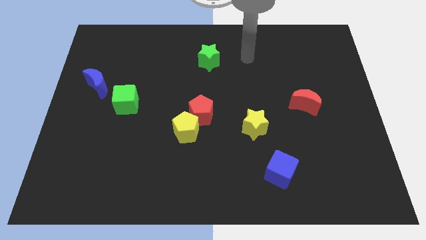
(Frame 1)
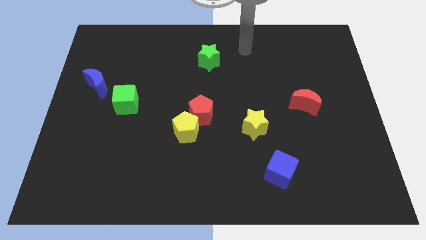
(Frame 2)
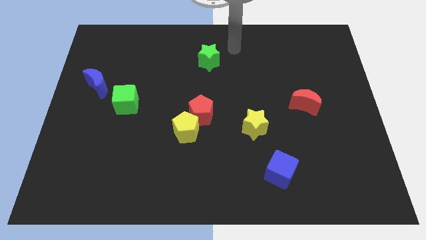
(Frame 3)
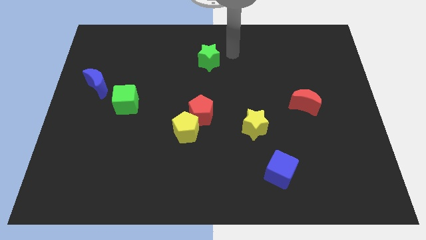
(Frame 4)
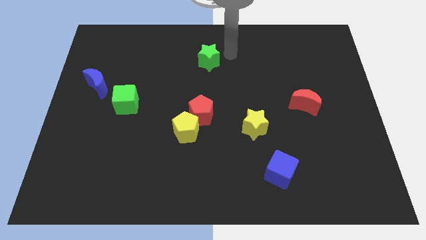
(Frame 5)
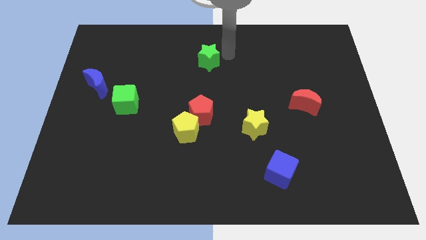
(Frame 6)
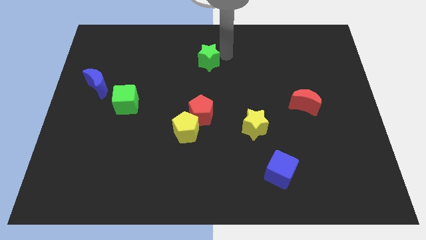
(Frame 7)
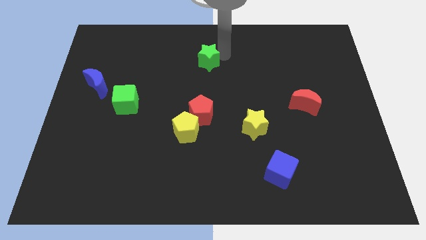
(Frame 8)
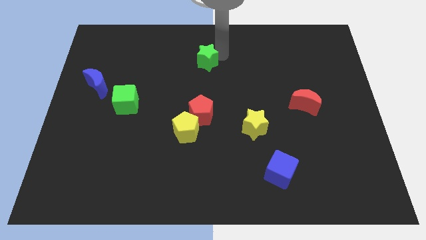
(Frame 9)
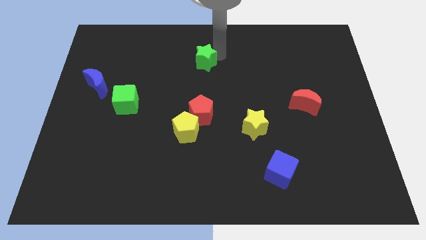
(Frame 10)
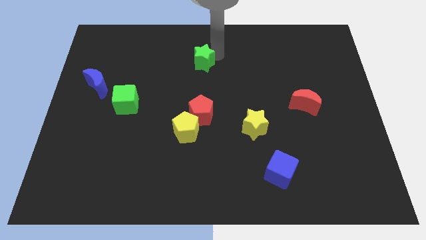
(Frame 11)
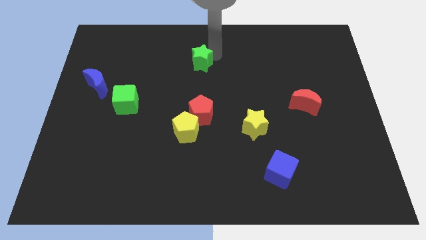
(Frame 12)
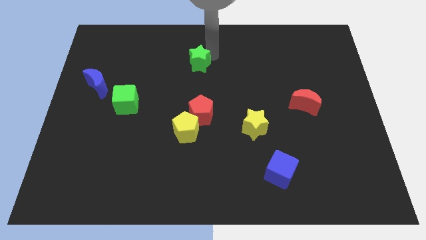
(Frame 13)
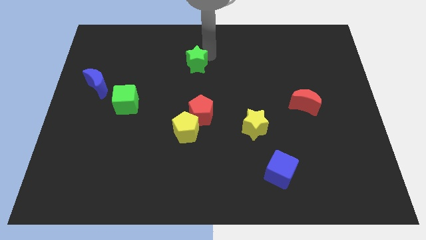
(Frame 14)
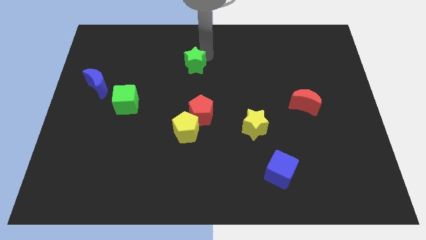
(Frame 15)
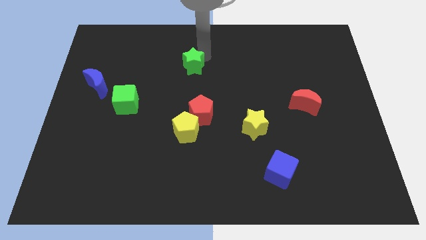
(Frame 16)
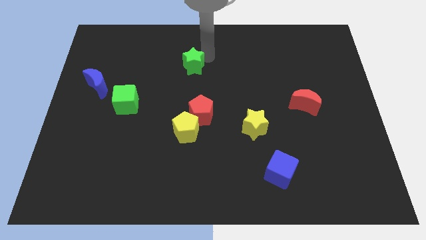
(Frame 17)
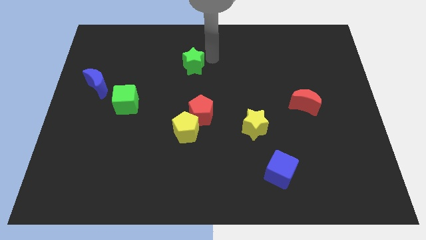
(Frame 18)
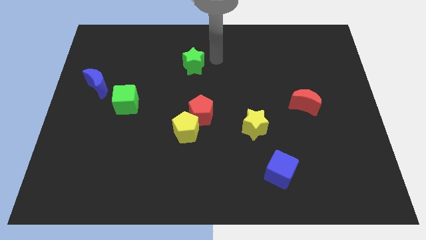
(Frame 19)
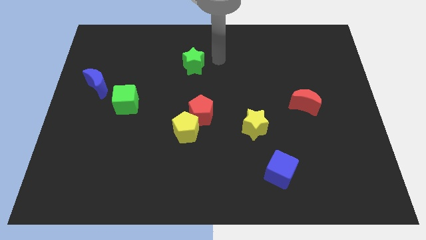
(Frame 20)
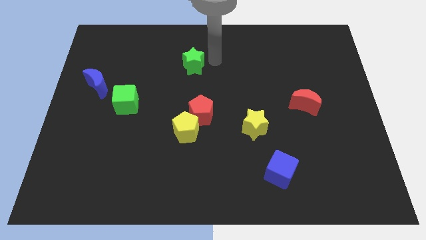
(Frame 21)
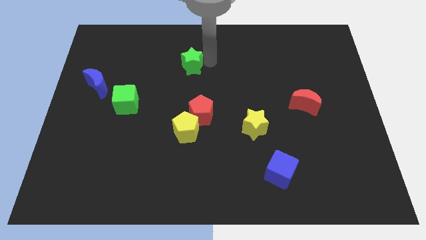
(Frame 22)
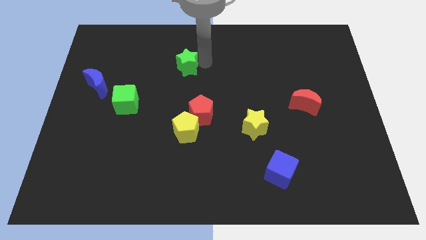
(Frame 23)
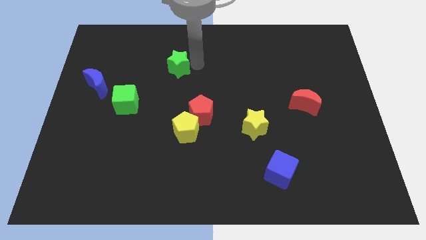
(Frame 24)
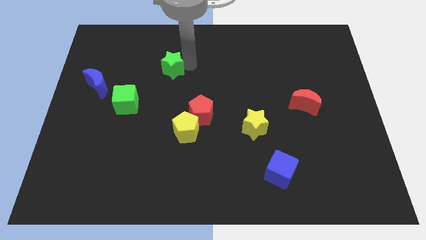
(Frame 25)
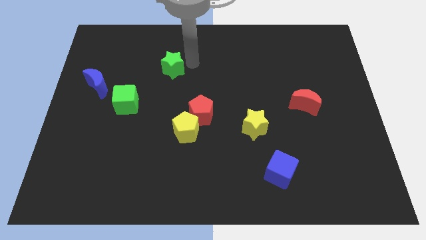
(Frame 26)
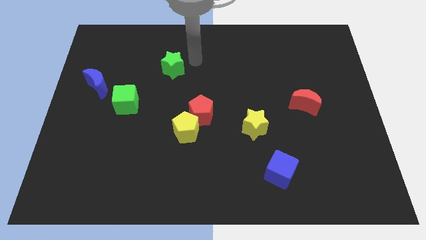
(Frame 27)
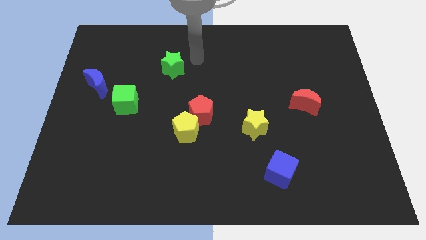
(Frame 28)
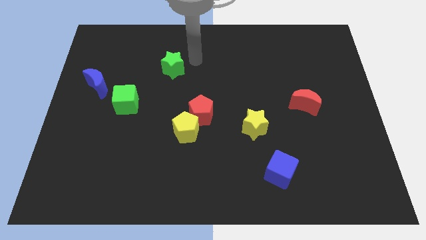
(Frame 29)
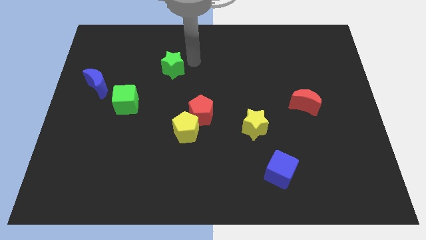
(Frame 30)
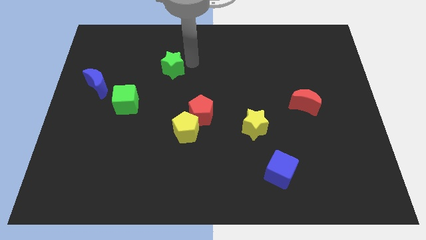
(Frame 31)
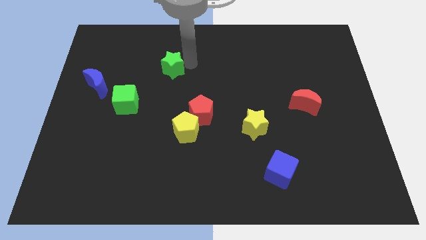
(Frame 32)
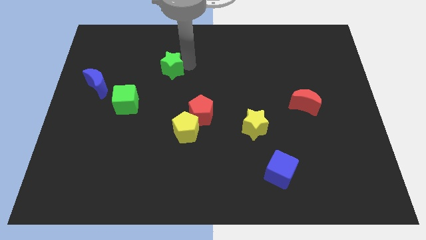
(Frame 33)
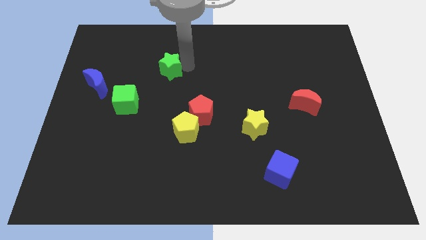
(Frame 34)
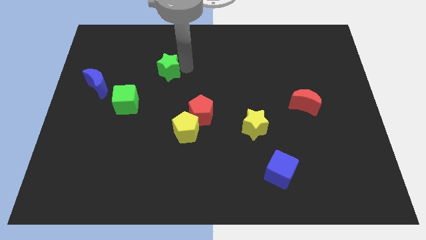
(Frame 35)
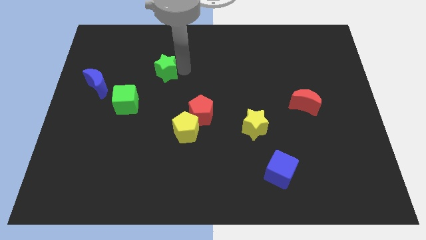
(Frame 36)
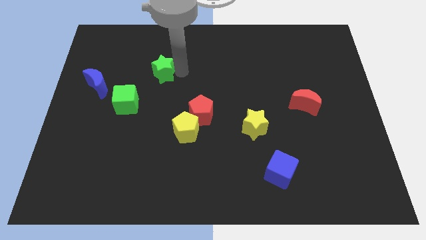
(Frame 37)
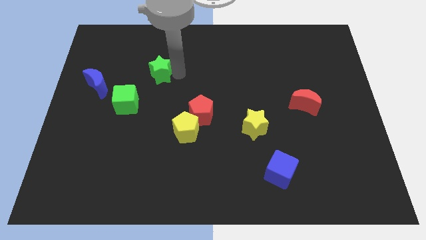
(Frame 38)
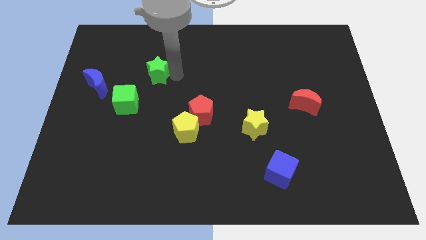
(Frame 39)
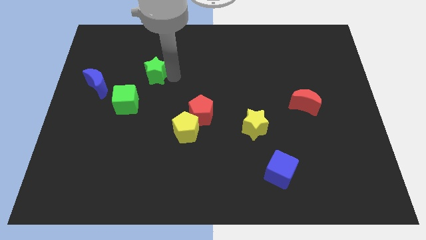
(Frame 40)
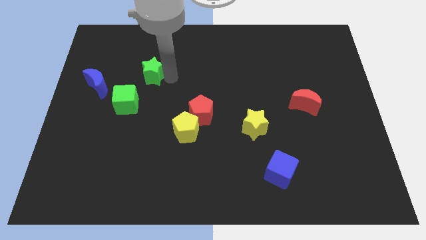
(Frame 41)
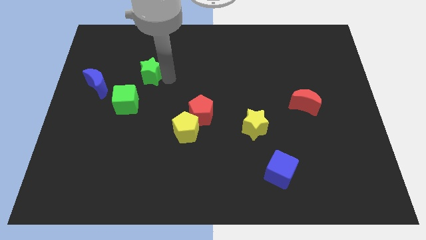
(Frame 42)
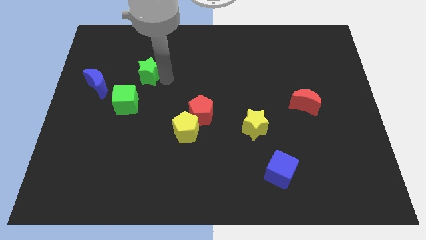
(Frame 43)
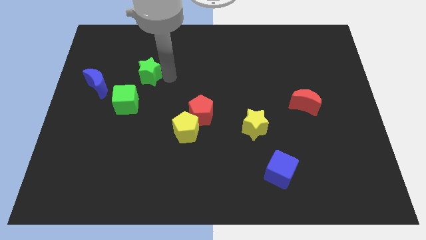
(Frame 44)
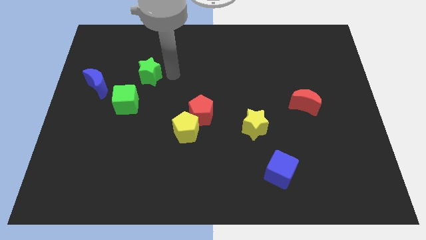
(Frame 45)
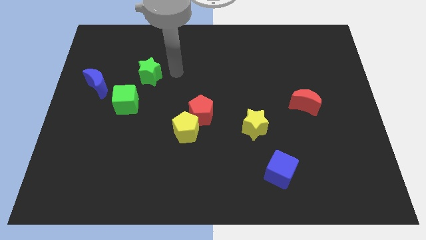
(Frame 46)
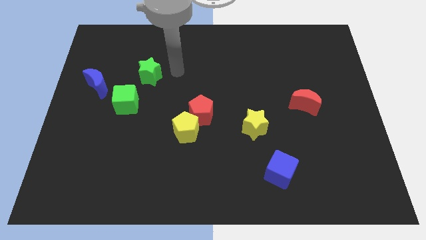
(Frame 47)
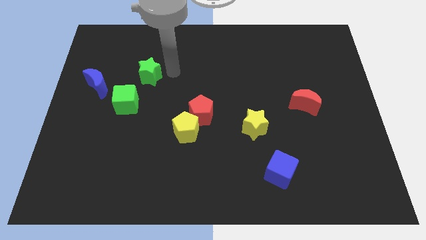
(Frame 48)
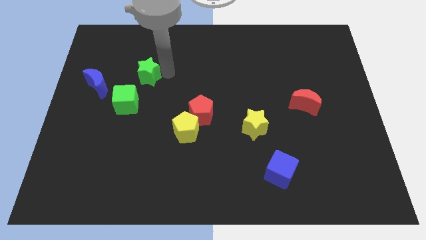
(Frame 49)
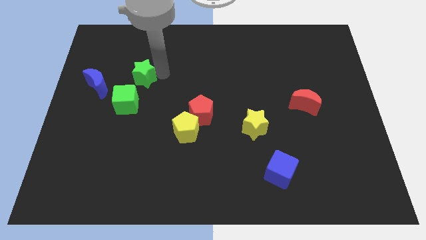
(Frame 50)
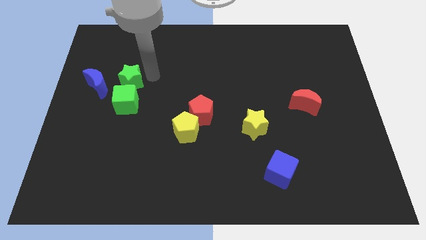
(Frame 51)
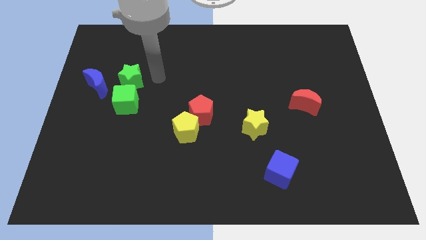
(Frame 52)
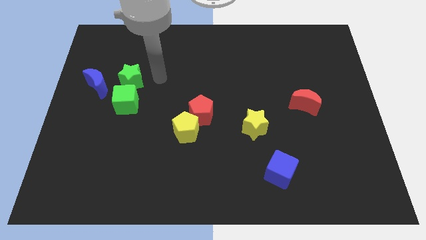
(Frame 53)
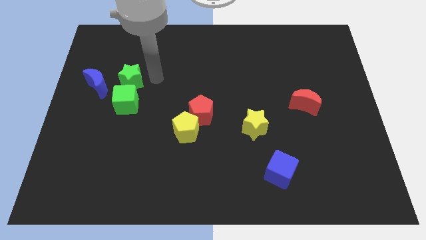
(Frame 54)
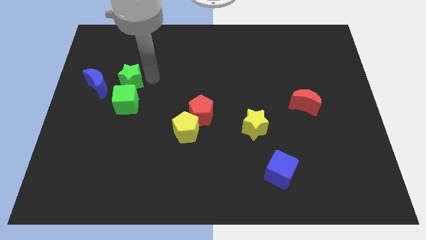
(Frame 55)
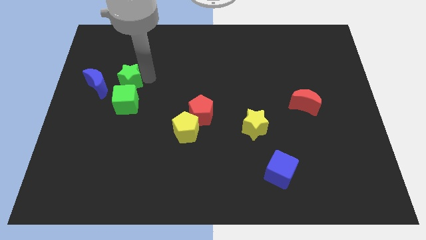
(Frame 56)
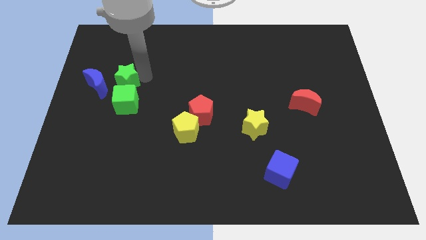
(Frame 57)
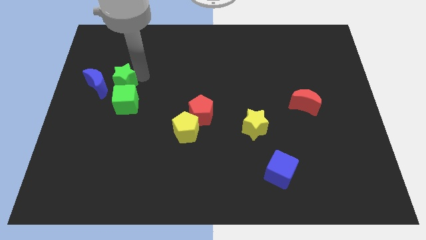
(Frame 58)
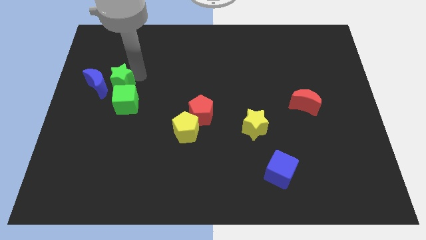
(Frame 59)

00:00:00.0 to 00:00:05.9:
slide the green star next to the blue moon

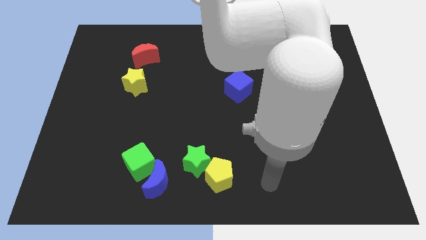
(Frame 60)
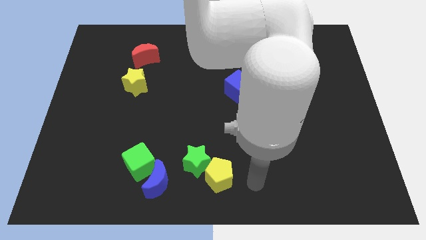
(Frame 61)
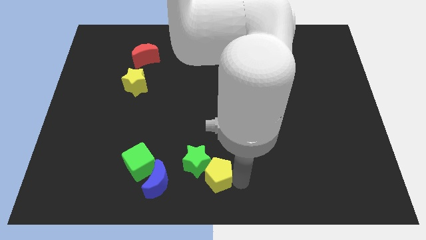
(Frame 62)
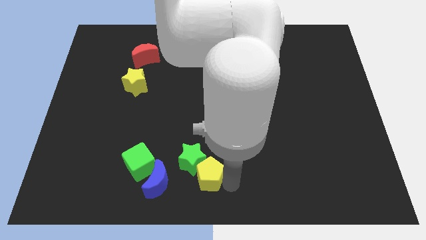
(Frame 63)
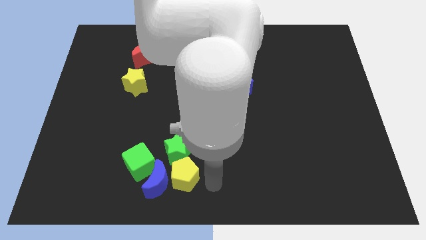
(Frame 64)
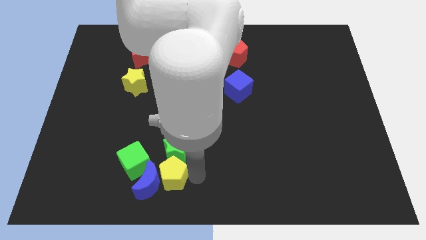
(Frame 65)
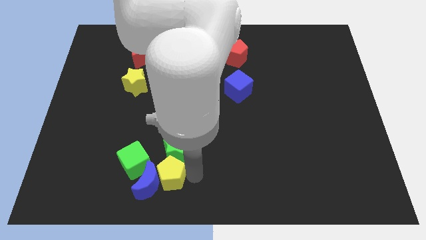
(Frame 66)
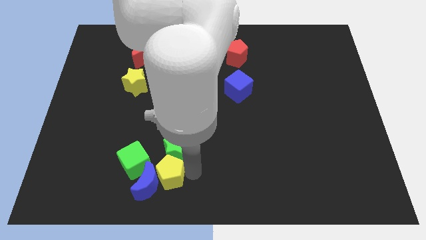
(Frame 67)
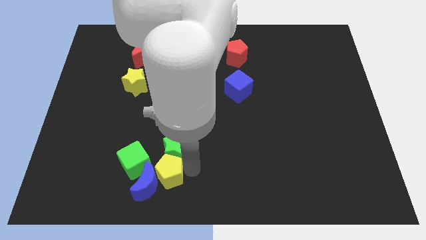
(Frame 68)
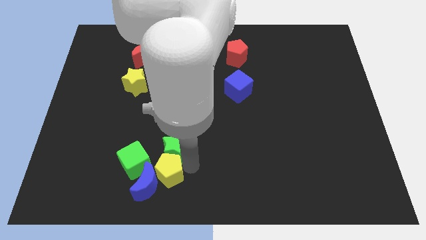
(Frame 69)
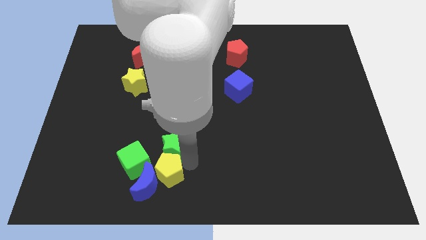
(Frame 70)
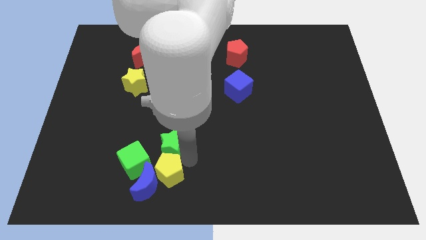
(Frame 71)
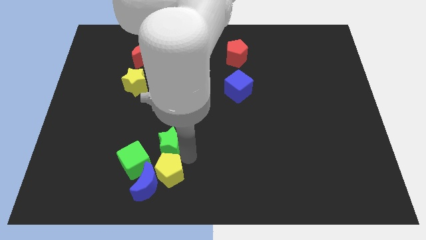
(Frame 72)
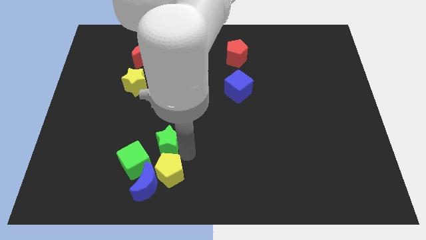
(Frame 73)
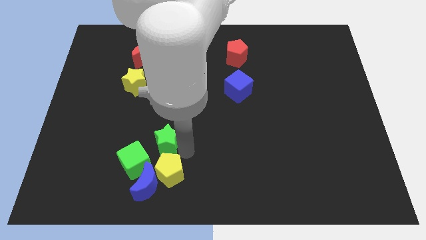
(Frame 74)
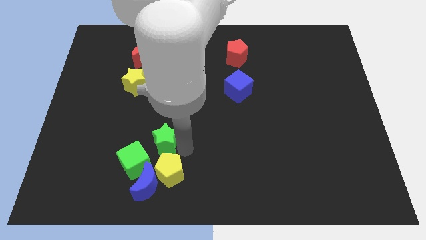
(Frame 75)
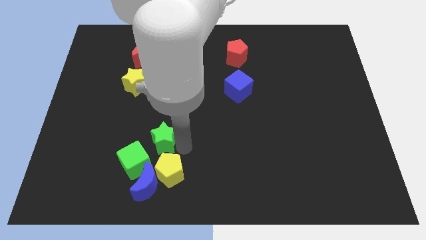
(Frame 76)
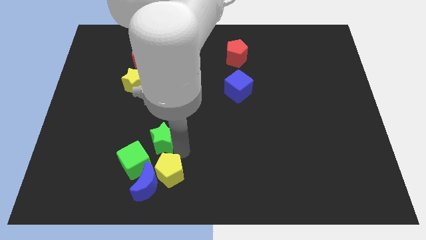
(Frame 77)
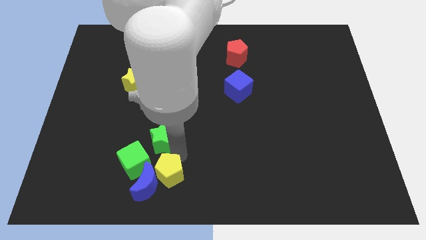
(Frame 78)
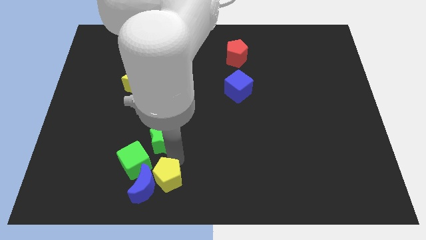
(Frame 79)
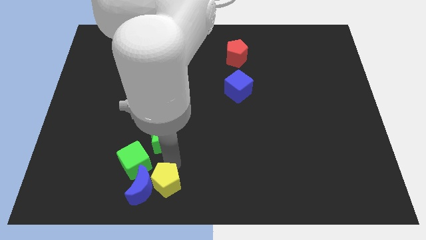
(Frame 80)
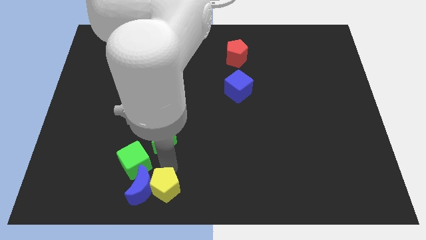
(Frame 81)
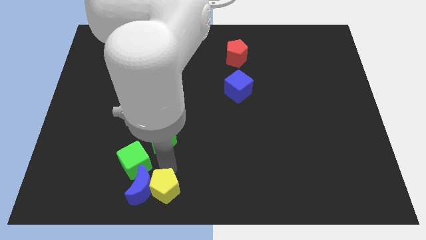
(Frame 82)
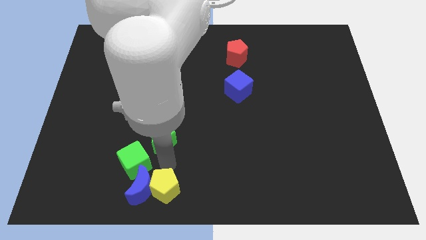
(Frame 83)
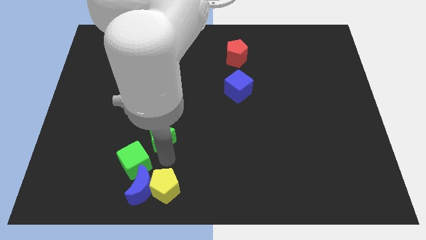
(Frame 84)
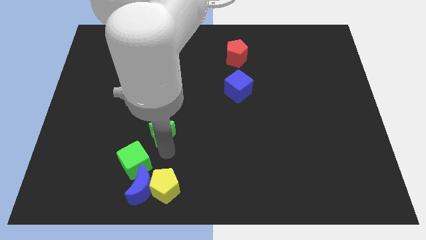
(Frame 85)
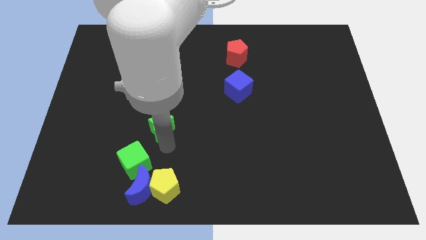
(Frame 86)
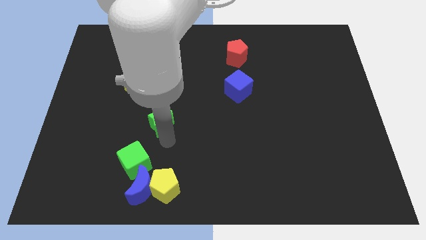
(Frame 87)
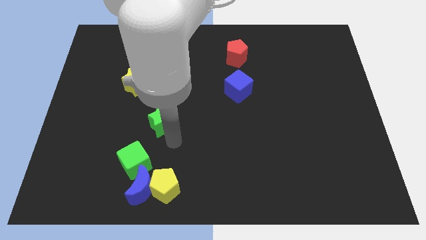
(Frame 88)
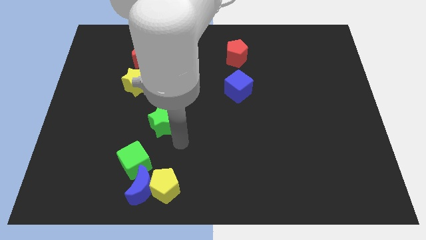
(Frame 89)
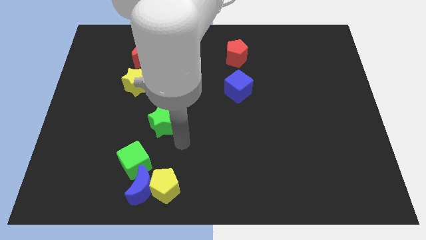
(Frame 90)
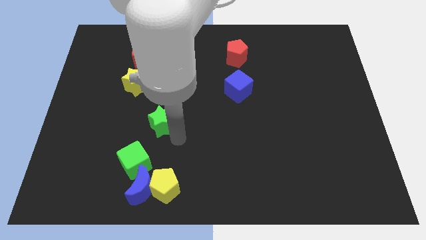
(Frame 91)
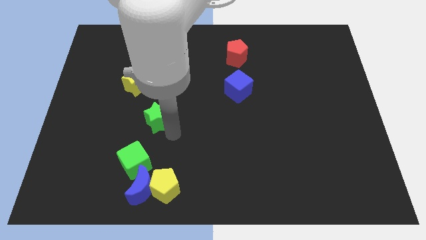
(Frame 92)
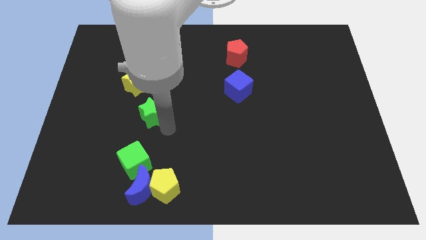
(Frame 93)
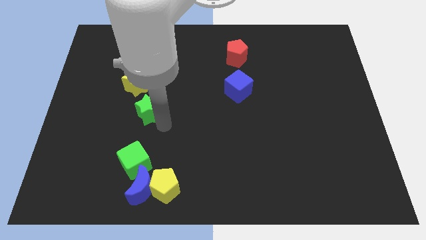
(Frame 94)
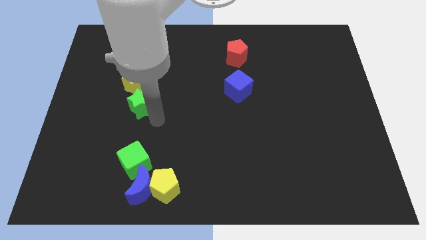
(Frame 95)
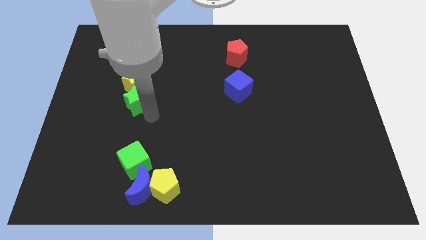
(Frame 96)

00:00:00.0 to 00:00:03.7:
move the green star close to the yellow star
